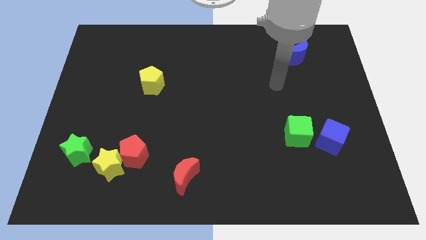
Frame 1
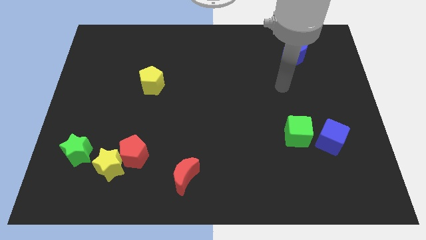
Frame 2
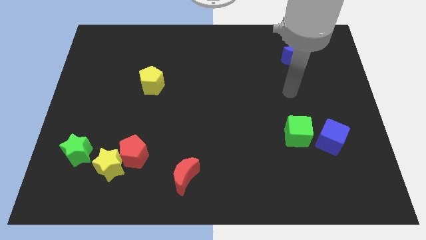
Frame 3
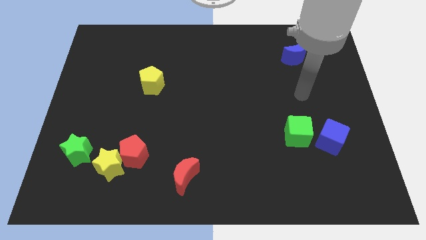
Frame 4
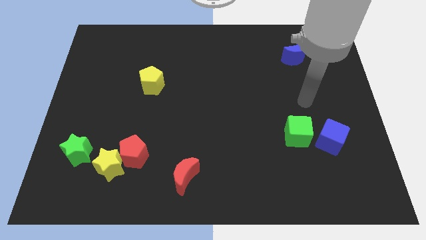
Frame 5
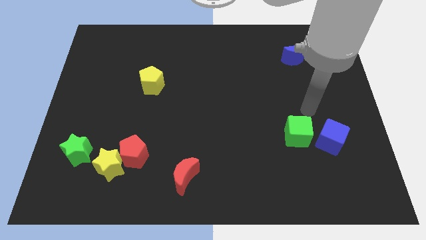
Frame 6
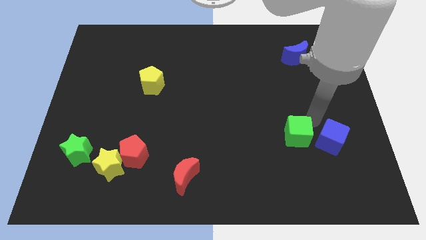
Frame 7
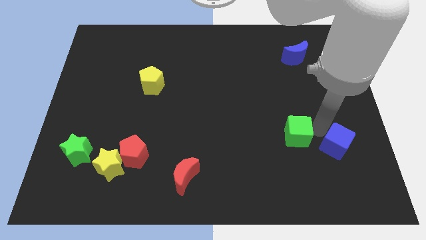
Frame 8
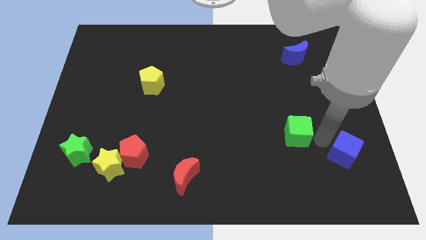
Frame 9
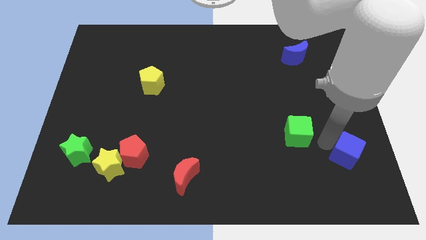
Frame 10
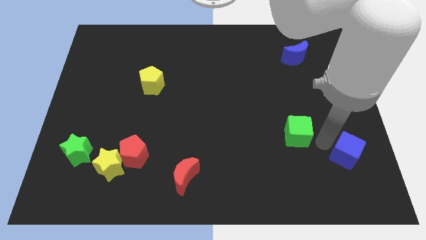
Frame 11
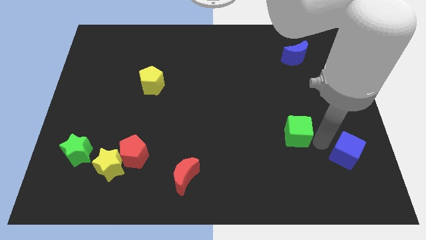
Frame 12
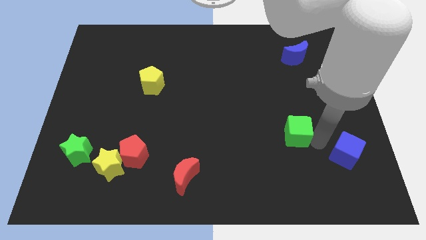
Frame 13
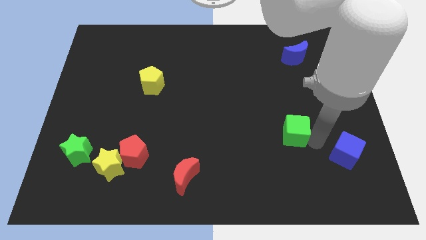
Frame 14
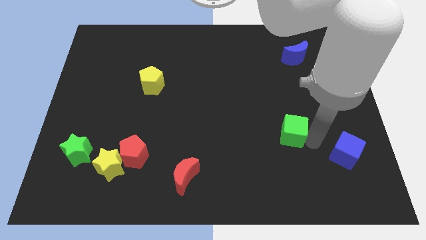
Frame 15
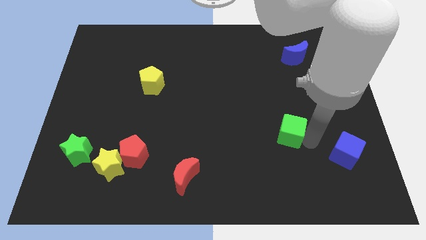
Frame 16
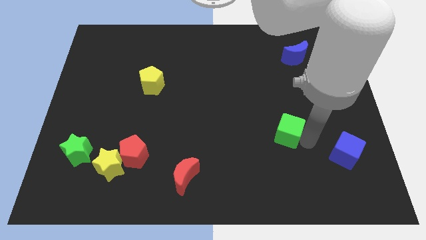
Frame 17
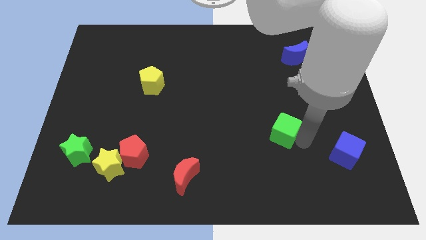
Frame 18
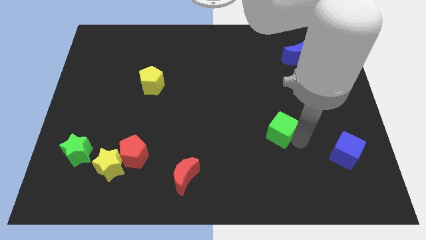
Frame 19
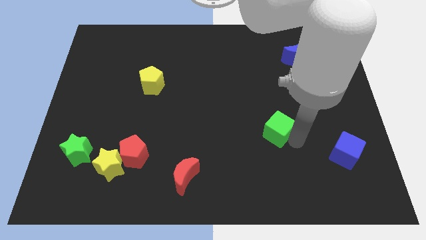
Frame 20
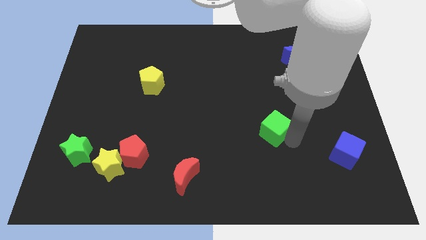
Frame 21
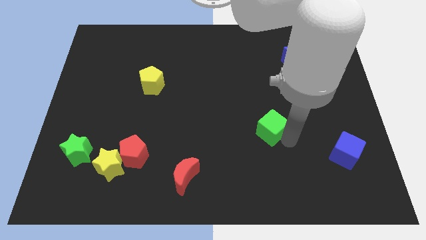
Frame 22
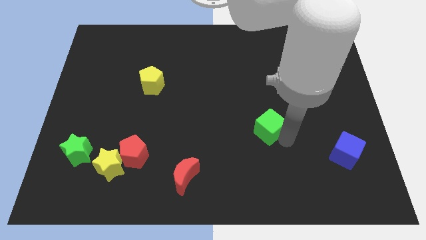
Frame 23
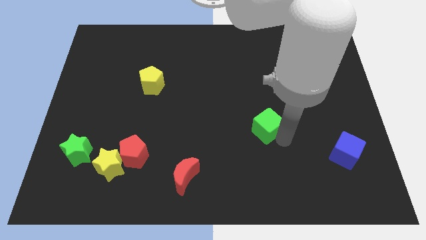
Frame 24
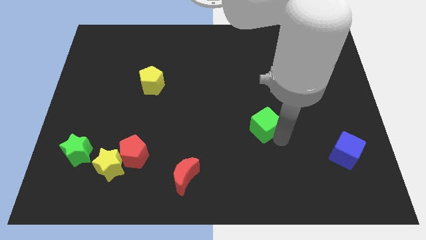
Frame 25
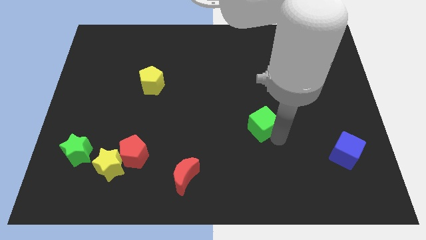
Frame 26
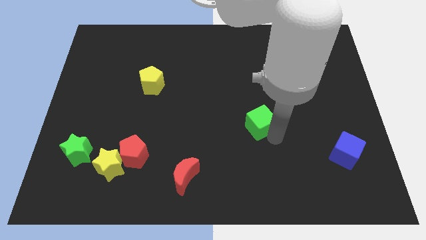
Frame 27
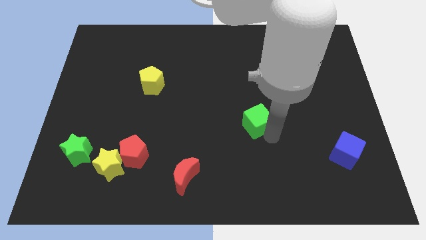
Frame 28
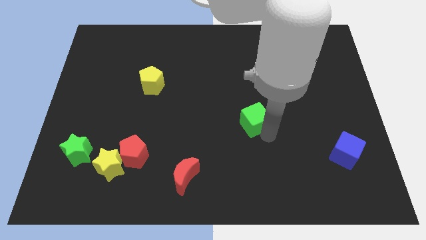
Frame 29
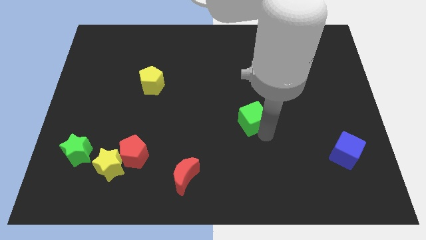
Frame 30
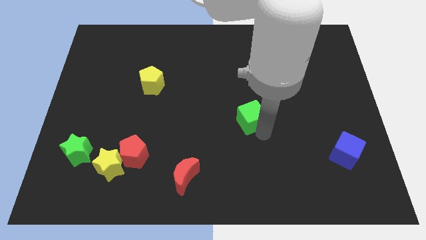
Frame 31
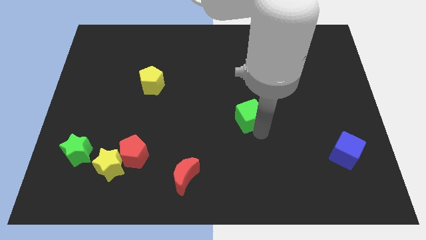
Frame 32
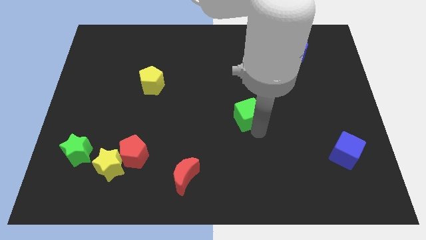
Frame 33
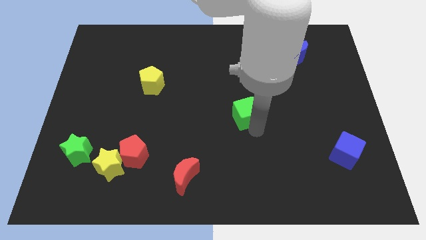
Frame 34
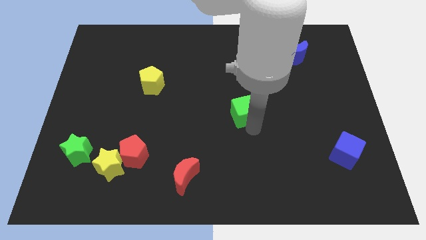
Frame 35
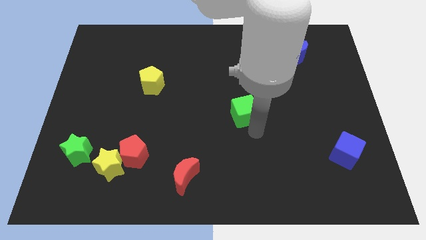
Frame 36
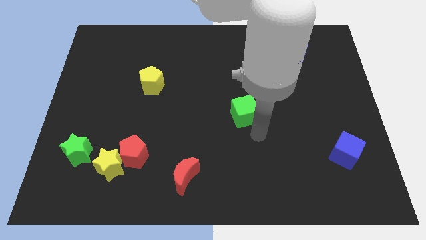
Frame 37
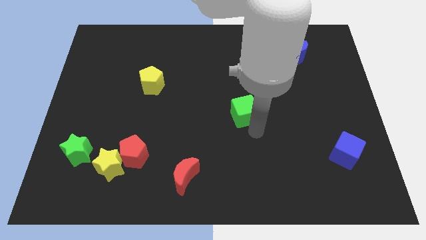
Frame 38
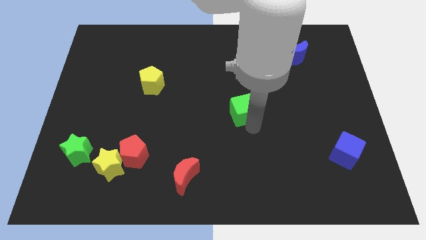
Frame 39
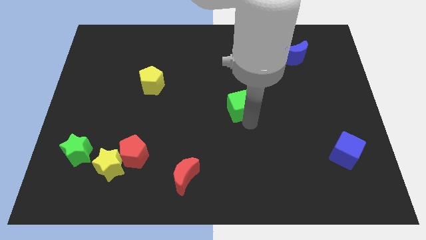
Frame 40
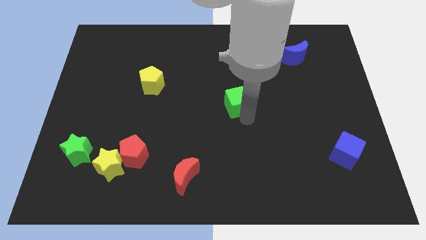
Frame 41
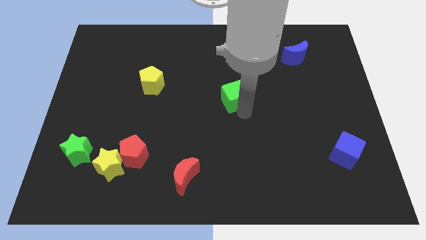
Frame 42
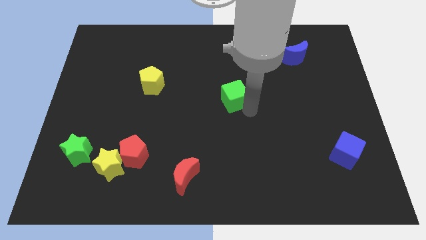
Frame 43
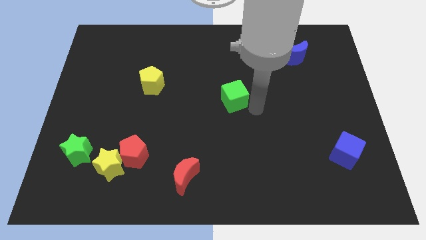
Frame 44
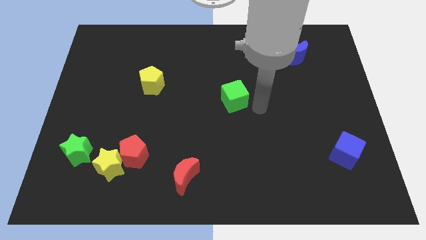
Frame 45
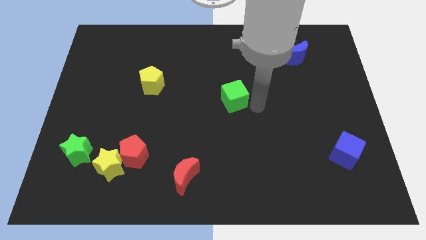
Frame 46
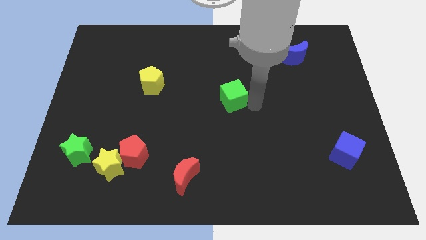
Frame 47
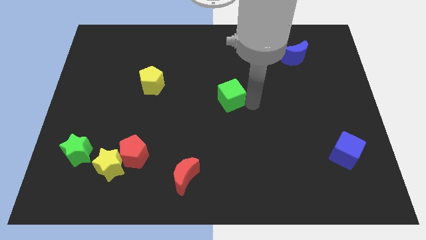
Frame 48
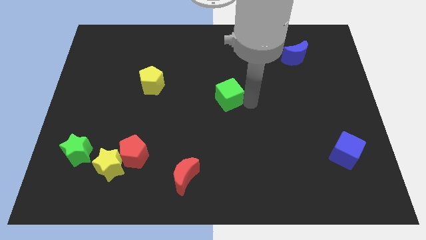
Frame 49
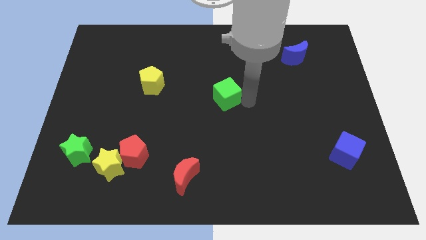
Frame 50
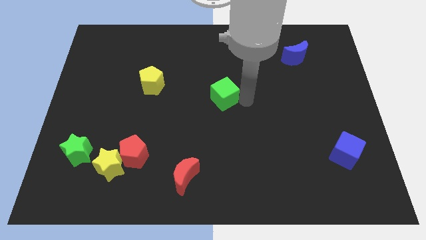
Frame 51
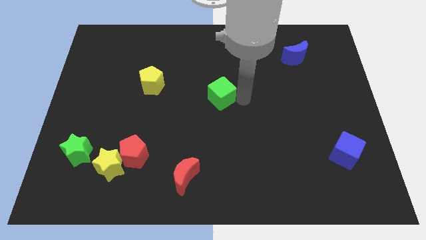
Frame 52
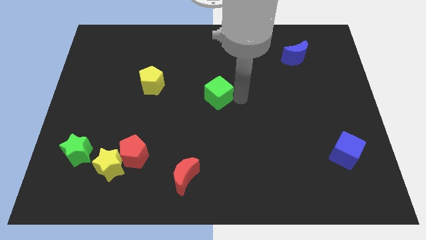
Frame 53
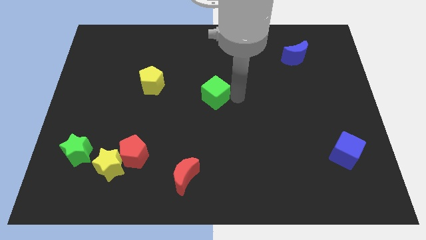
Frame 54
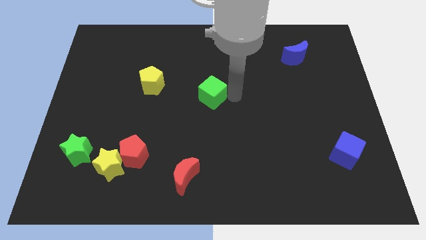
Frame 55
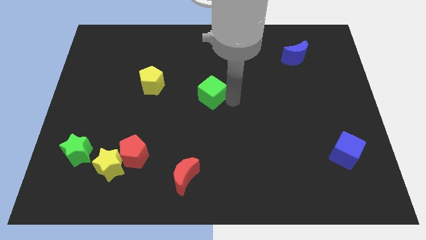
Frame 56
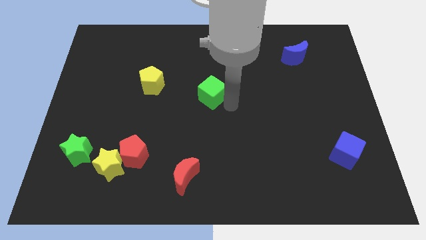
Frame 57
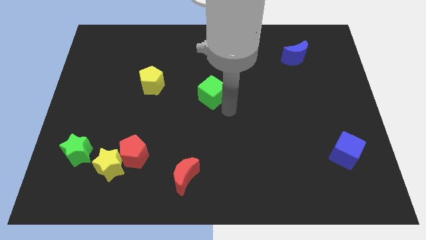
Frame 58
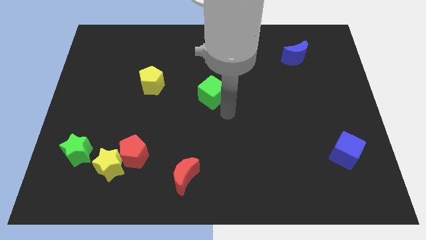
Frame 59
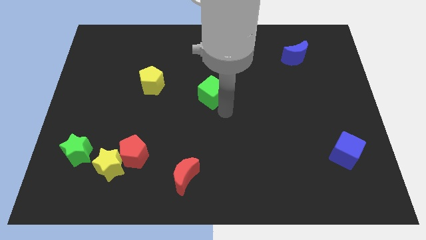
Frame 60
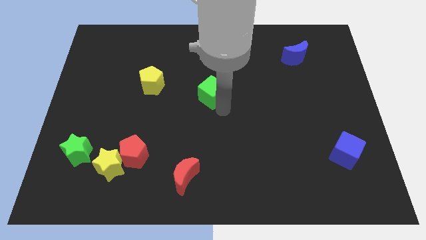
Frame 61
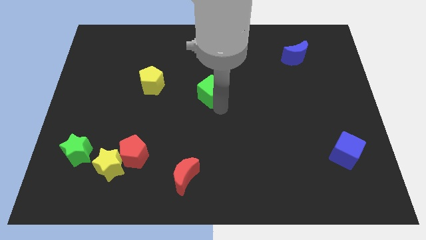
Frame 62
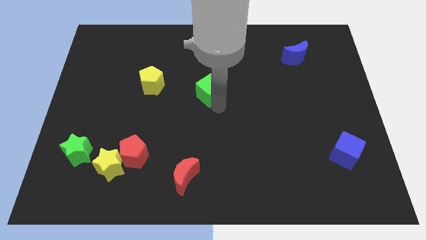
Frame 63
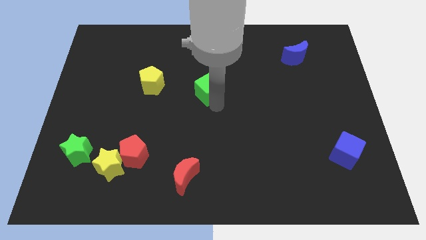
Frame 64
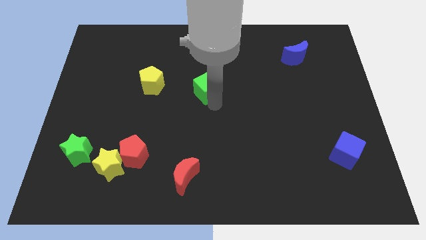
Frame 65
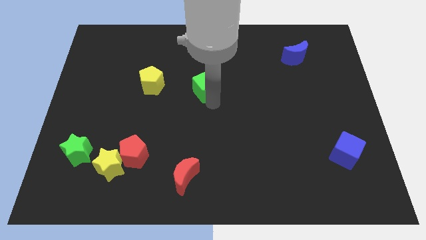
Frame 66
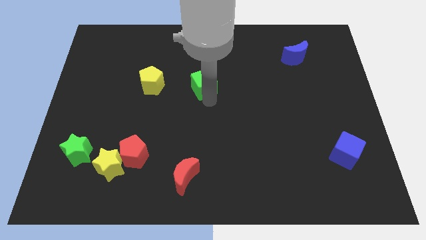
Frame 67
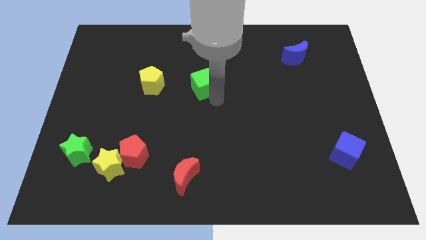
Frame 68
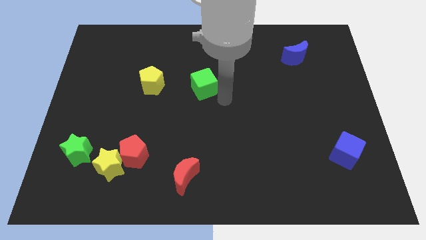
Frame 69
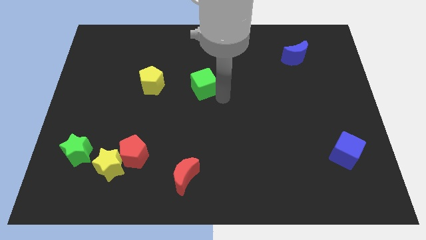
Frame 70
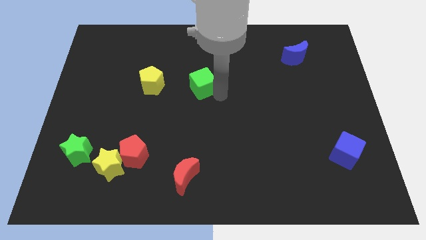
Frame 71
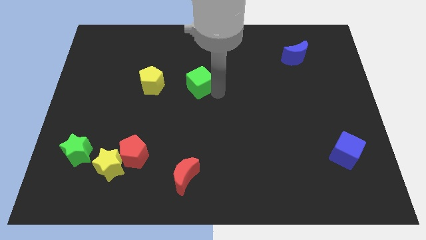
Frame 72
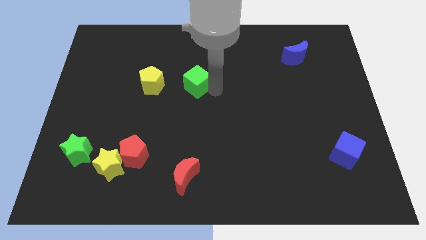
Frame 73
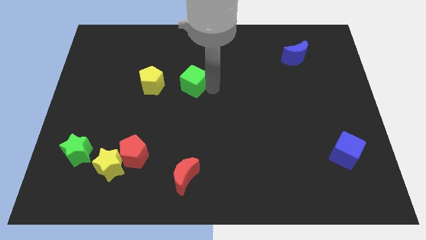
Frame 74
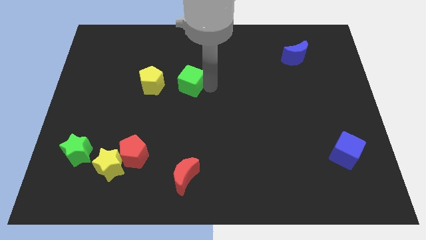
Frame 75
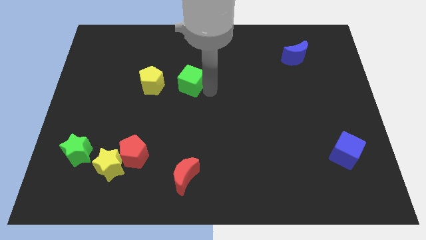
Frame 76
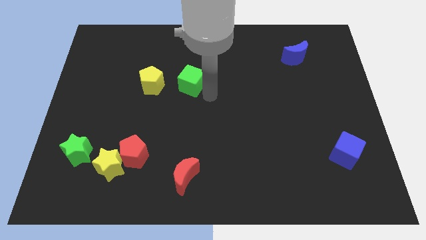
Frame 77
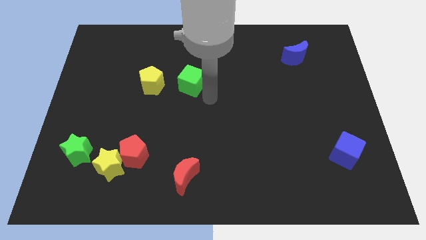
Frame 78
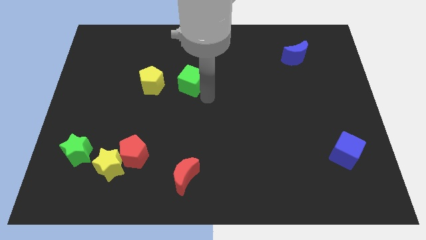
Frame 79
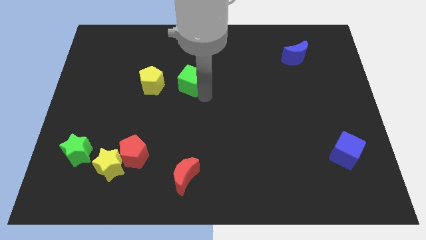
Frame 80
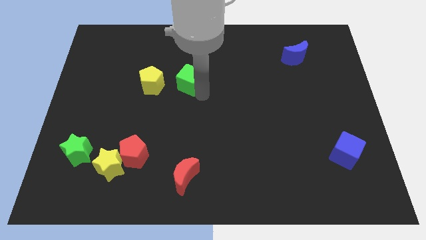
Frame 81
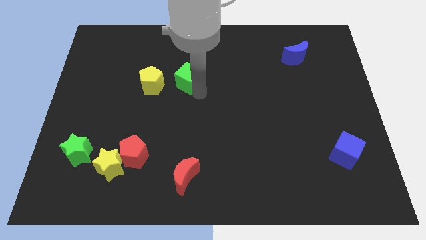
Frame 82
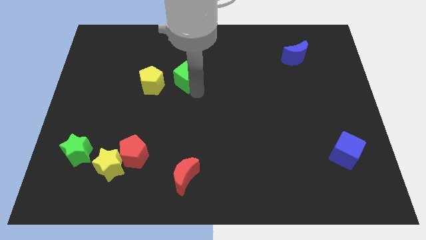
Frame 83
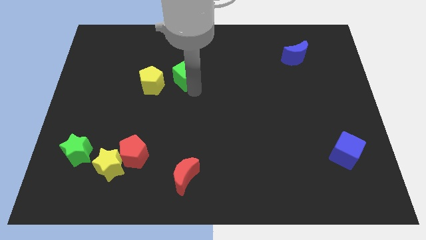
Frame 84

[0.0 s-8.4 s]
move the green cube diagonally up and to the right of the yellow pentagon
